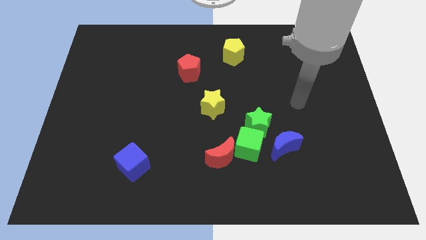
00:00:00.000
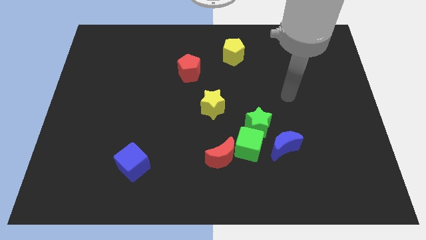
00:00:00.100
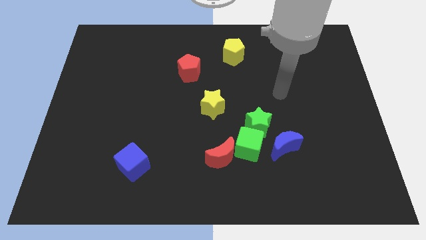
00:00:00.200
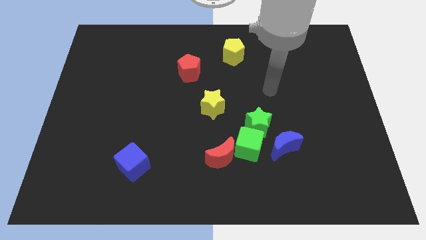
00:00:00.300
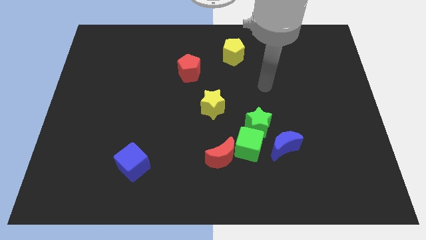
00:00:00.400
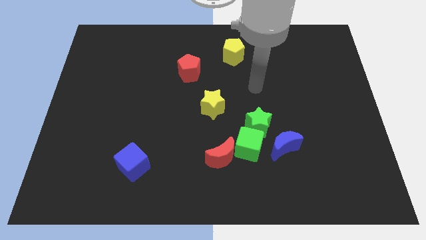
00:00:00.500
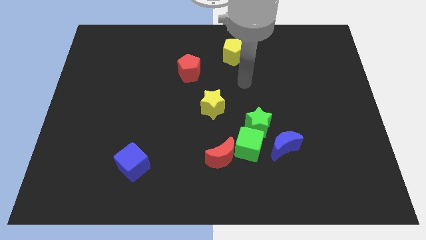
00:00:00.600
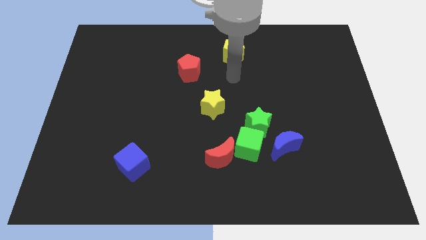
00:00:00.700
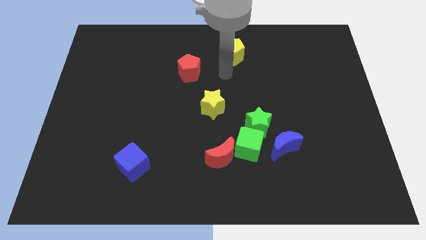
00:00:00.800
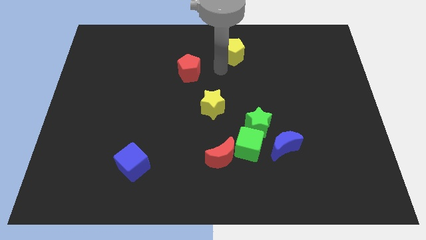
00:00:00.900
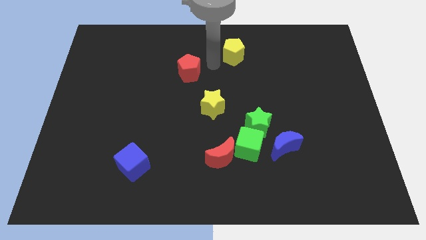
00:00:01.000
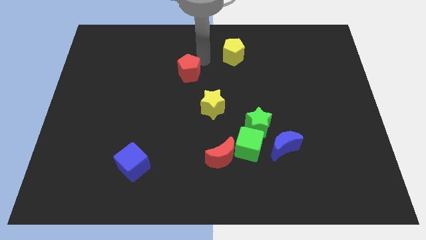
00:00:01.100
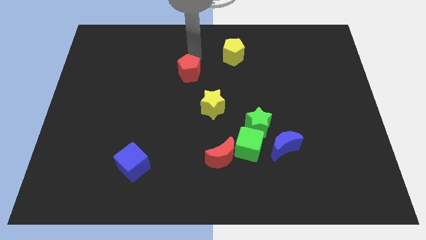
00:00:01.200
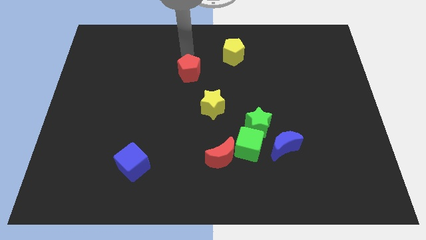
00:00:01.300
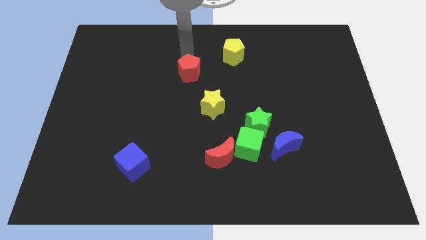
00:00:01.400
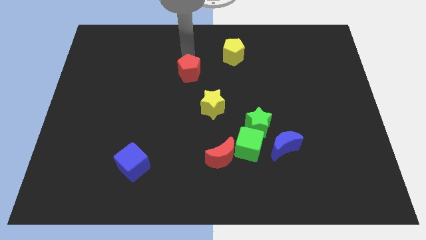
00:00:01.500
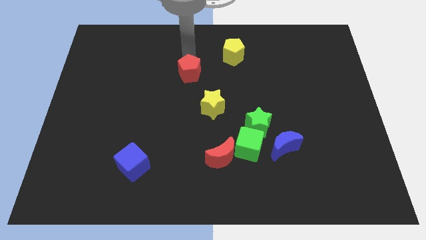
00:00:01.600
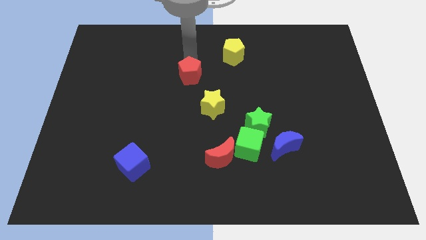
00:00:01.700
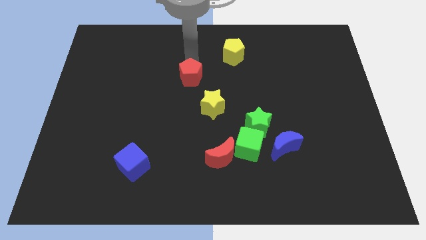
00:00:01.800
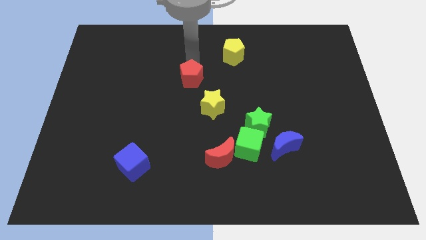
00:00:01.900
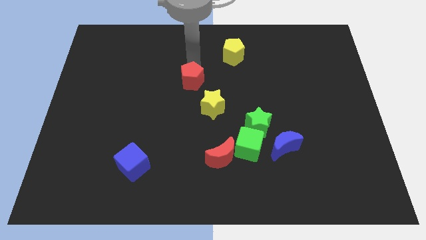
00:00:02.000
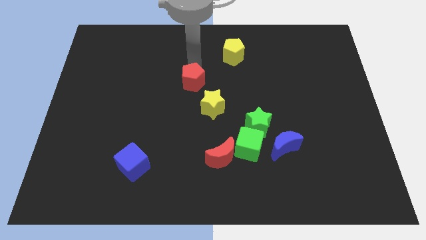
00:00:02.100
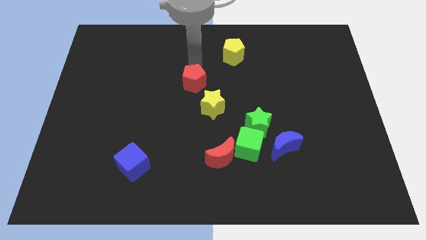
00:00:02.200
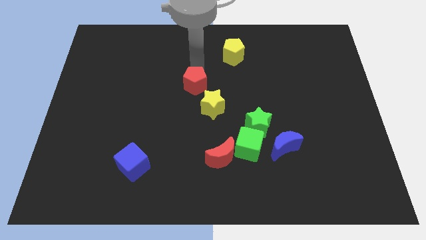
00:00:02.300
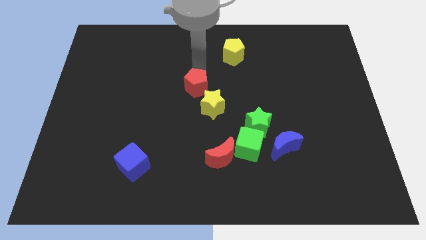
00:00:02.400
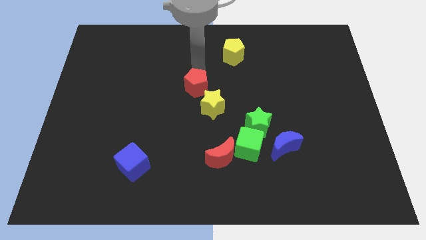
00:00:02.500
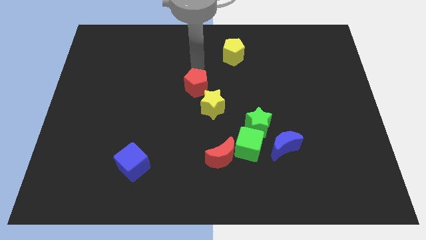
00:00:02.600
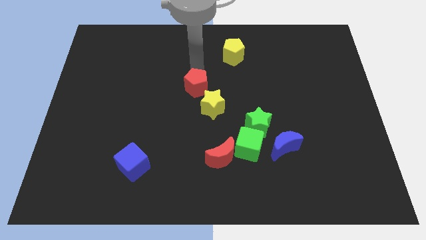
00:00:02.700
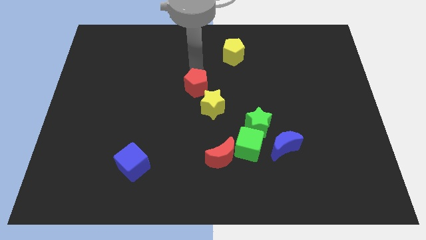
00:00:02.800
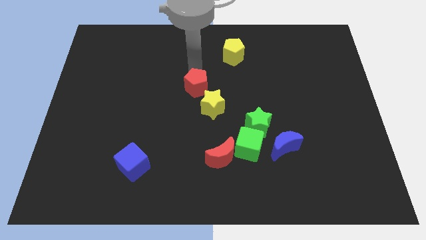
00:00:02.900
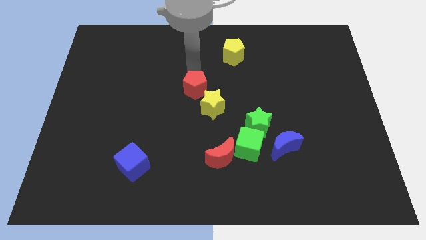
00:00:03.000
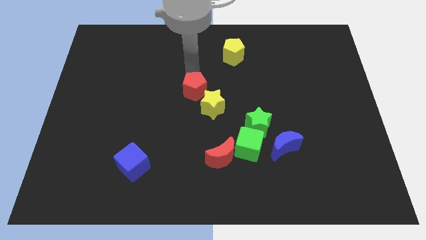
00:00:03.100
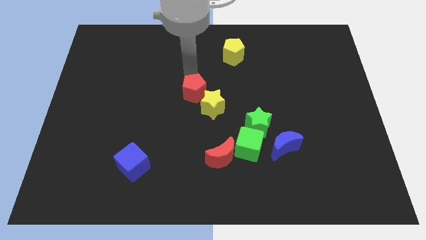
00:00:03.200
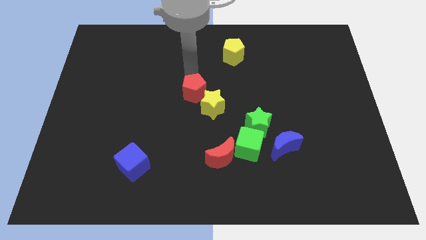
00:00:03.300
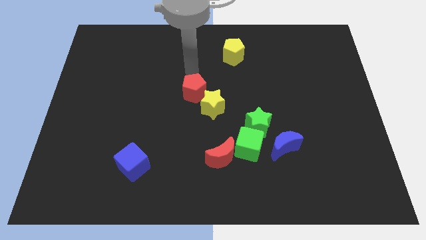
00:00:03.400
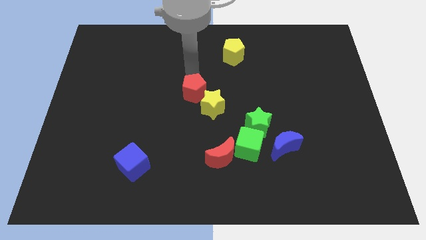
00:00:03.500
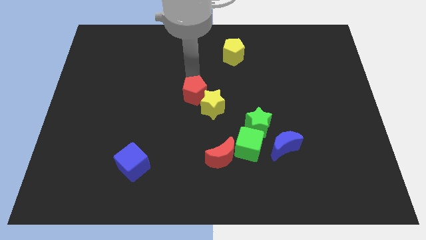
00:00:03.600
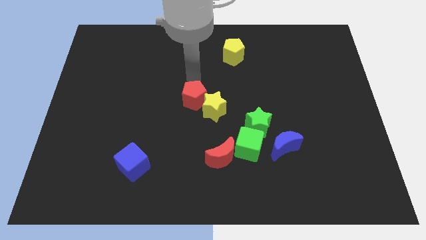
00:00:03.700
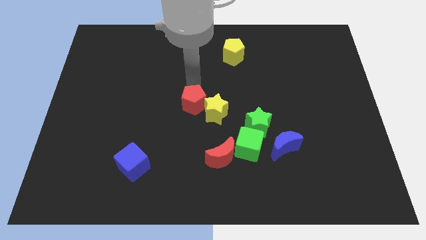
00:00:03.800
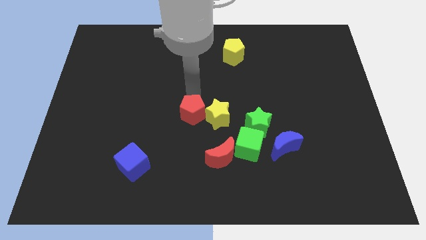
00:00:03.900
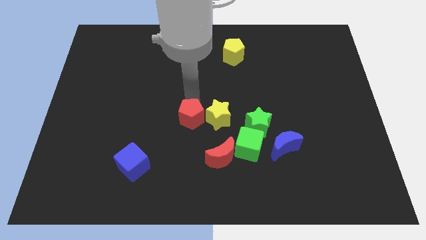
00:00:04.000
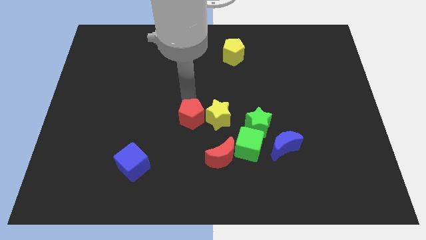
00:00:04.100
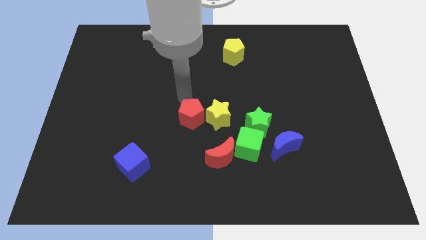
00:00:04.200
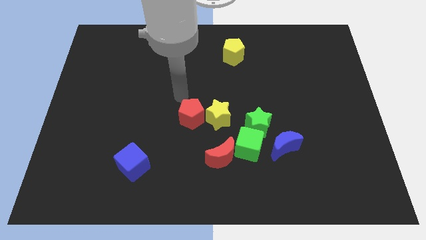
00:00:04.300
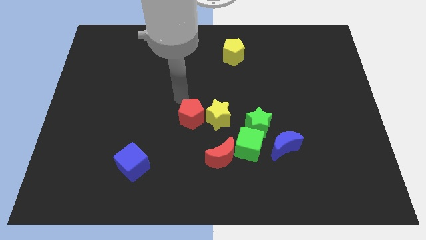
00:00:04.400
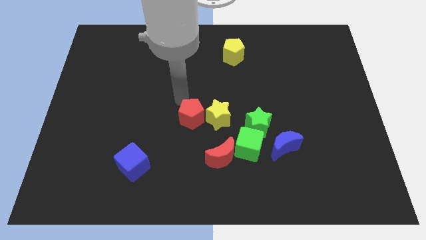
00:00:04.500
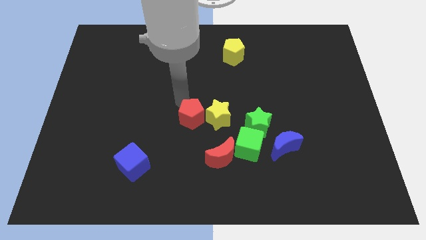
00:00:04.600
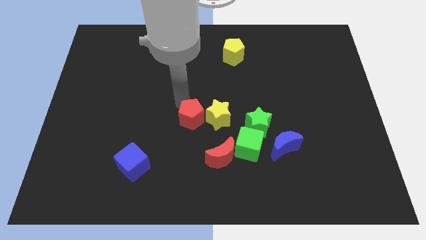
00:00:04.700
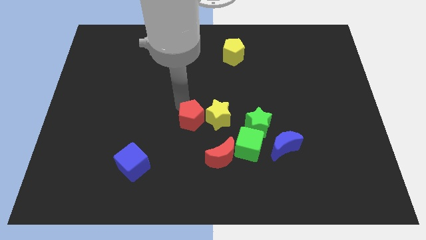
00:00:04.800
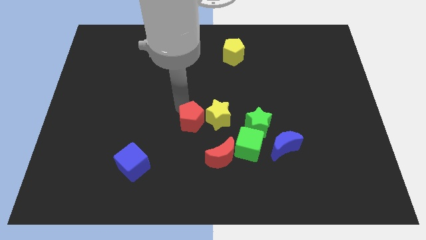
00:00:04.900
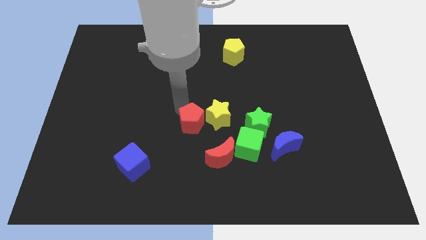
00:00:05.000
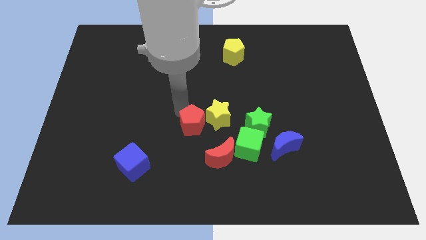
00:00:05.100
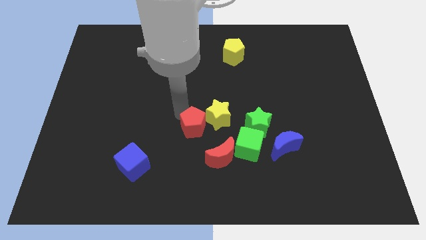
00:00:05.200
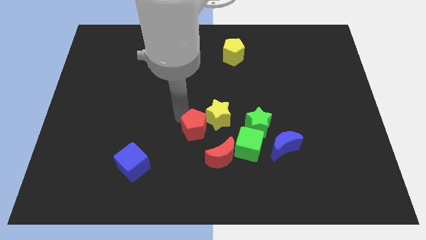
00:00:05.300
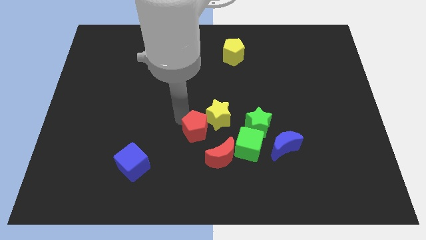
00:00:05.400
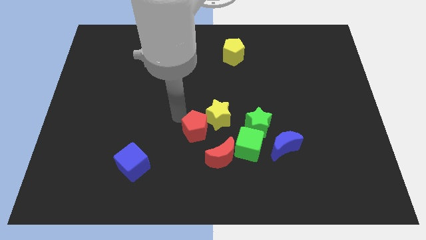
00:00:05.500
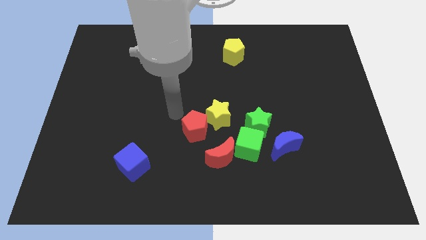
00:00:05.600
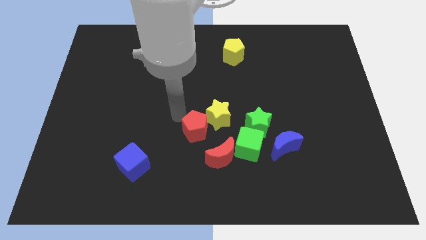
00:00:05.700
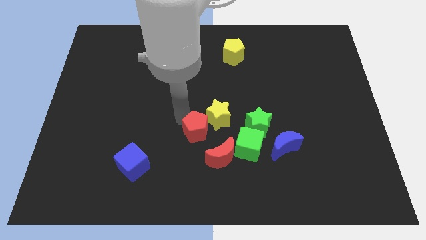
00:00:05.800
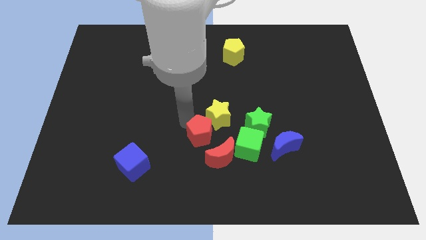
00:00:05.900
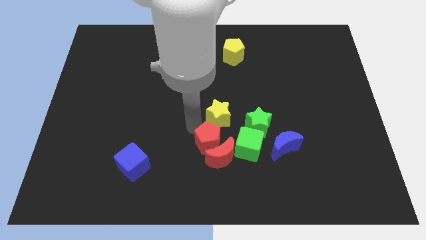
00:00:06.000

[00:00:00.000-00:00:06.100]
put the red pentagon towards the red moon
